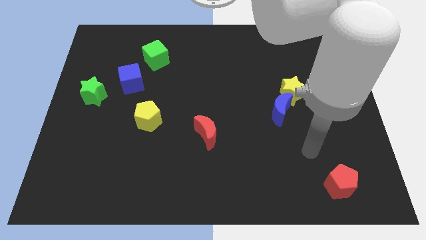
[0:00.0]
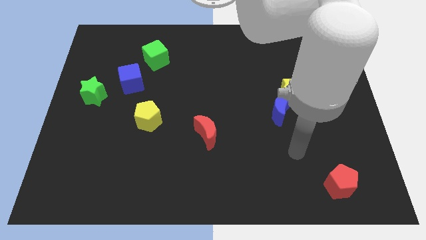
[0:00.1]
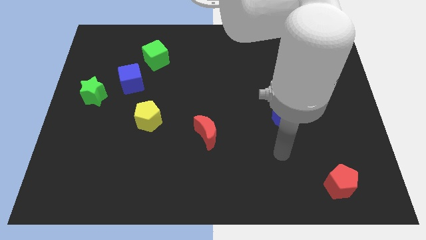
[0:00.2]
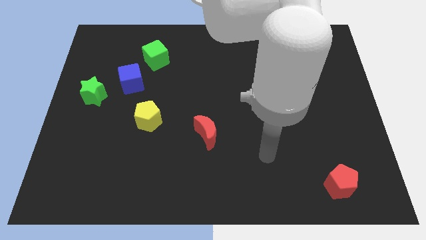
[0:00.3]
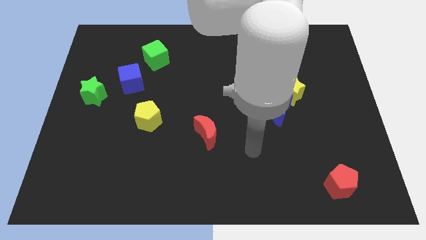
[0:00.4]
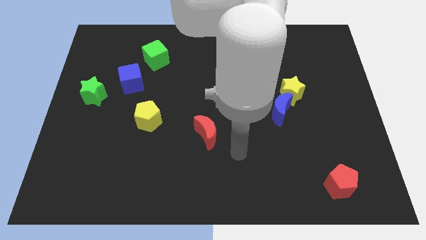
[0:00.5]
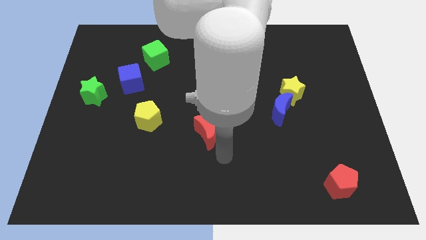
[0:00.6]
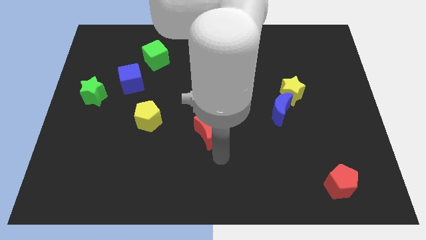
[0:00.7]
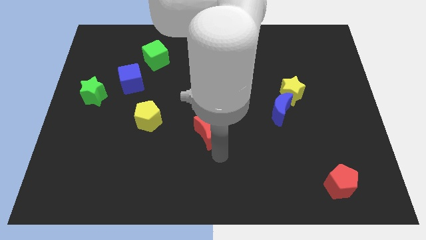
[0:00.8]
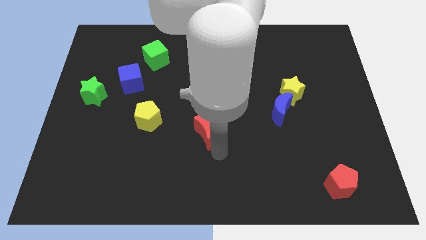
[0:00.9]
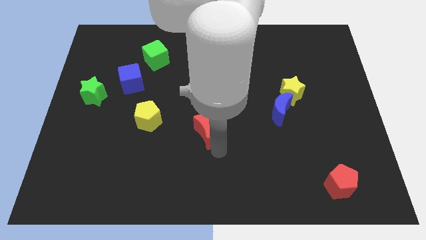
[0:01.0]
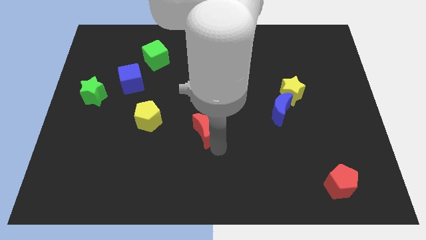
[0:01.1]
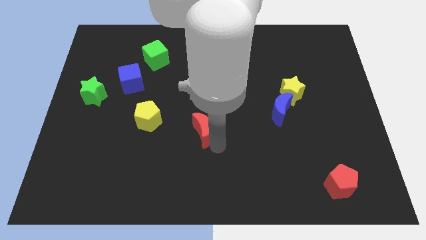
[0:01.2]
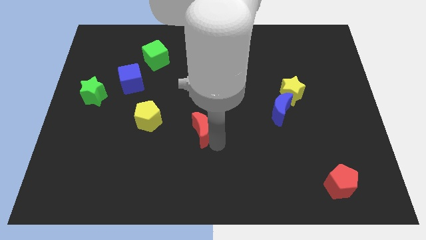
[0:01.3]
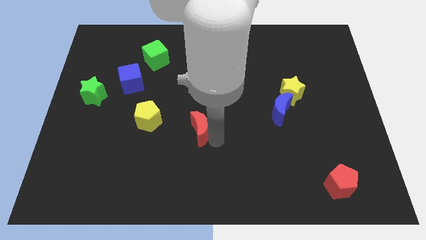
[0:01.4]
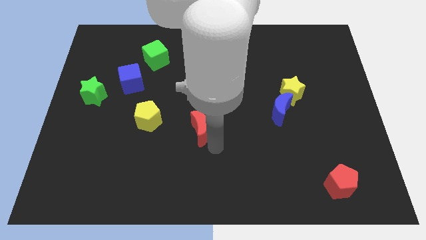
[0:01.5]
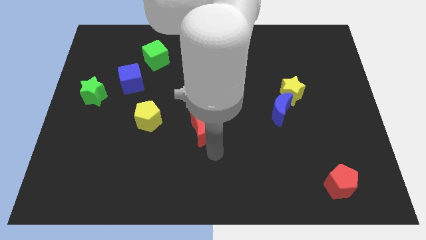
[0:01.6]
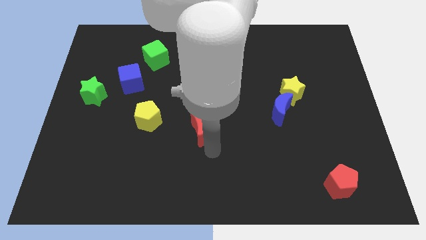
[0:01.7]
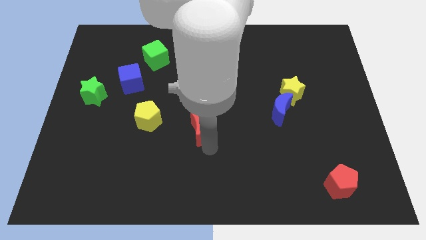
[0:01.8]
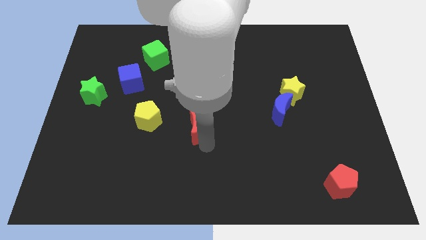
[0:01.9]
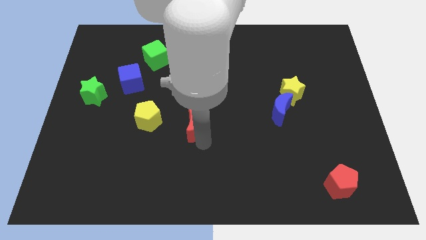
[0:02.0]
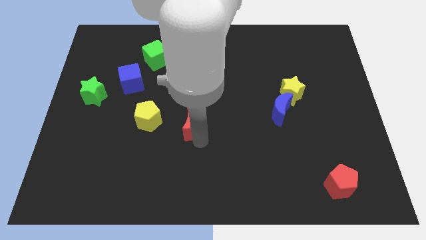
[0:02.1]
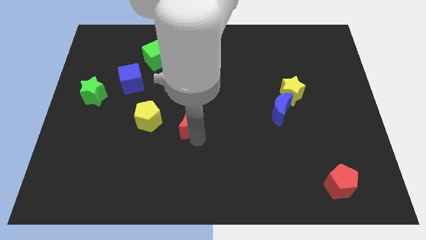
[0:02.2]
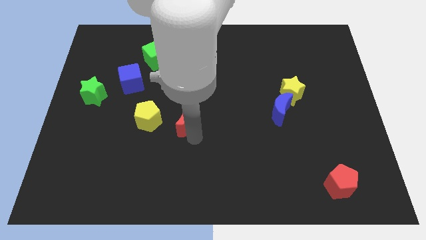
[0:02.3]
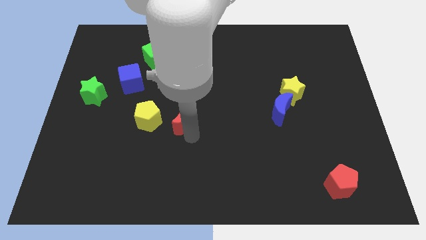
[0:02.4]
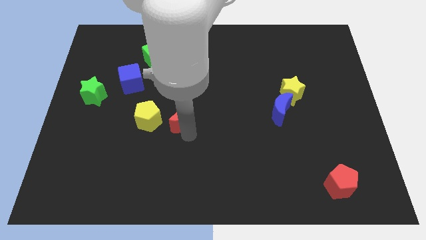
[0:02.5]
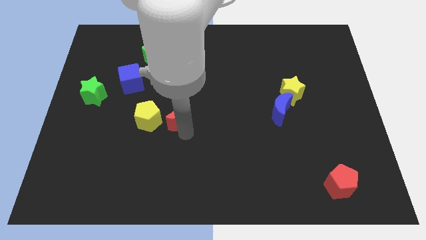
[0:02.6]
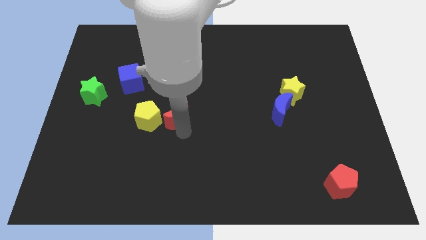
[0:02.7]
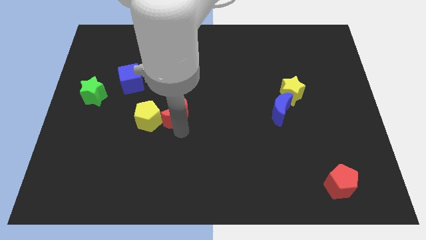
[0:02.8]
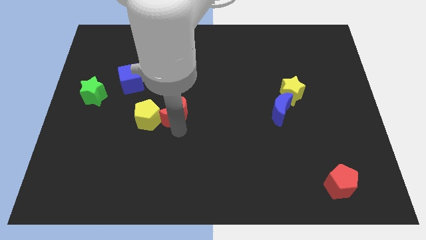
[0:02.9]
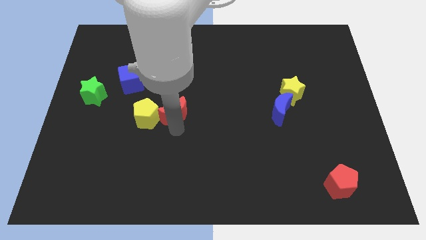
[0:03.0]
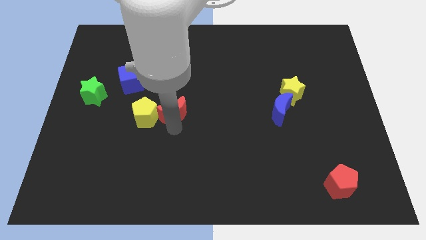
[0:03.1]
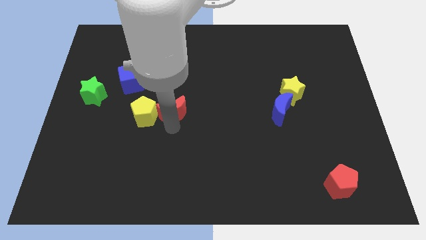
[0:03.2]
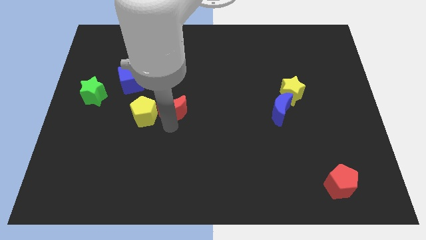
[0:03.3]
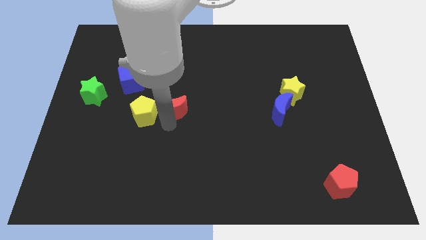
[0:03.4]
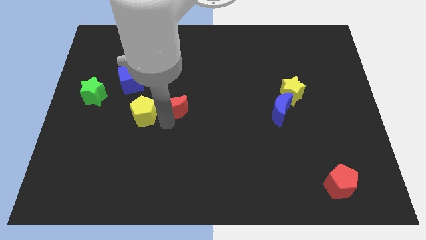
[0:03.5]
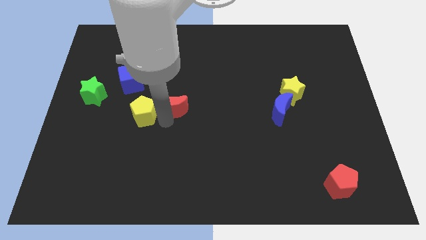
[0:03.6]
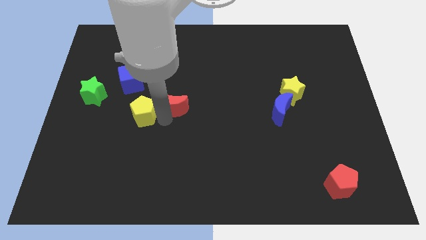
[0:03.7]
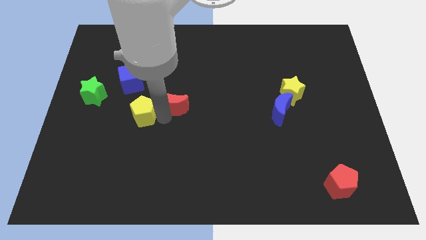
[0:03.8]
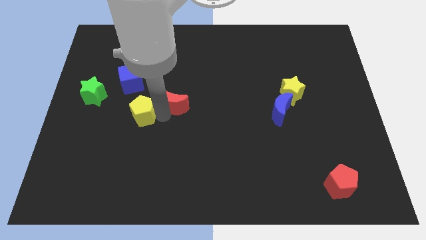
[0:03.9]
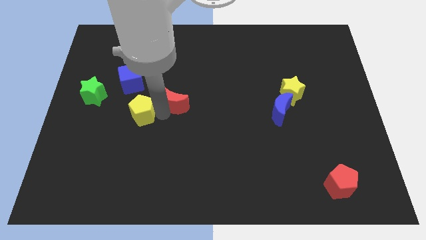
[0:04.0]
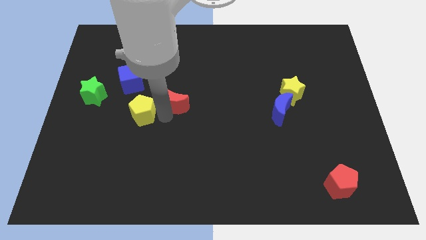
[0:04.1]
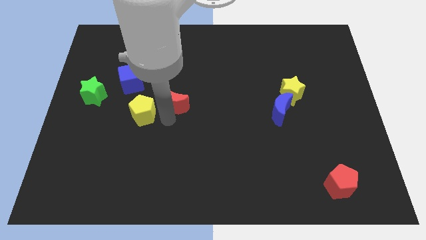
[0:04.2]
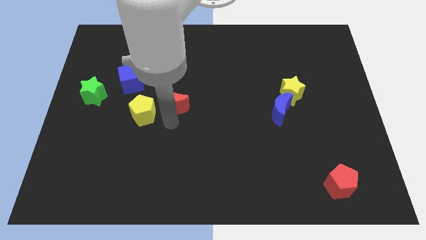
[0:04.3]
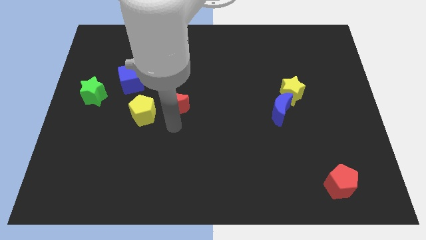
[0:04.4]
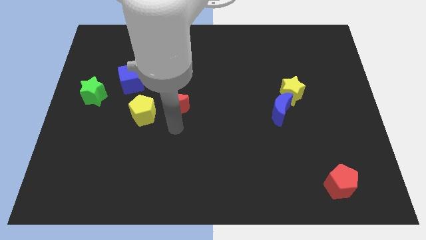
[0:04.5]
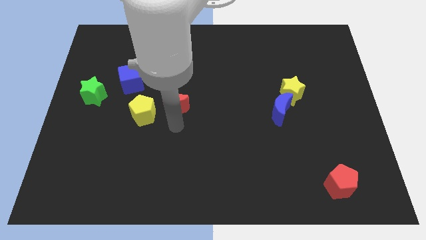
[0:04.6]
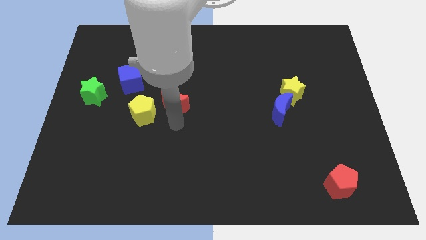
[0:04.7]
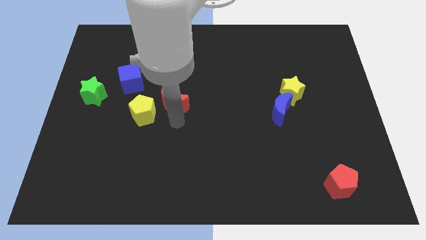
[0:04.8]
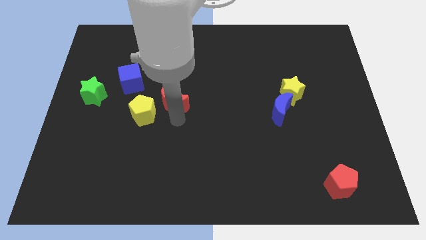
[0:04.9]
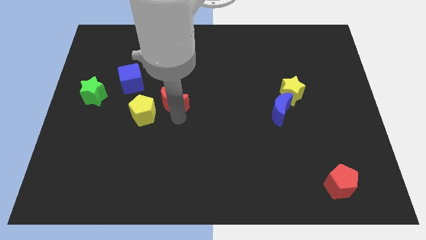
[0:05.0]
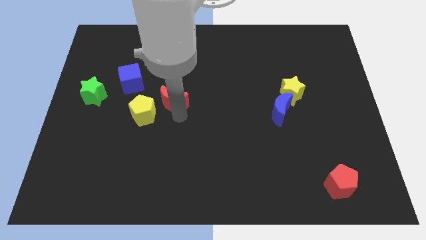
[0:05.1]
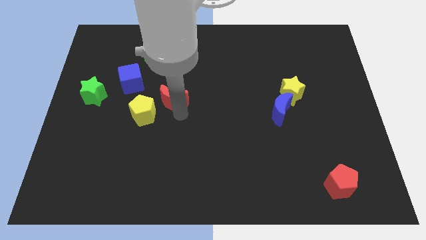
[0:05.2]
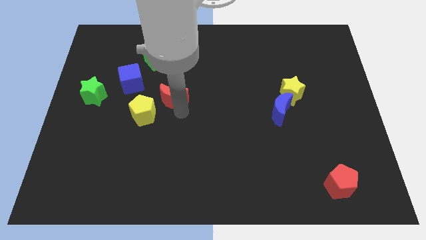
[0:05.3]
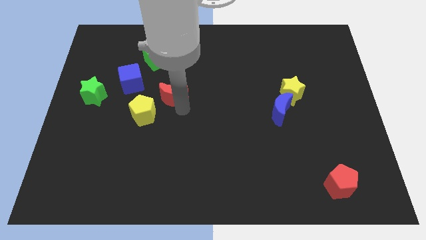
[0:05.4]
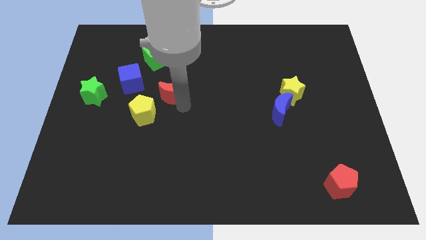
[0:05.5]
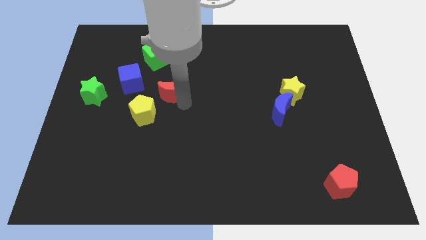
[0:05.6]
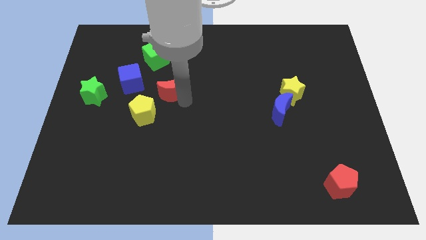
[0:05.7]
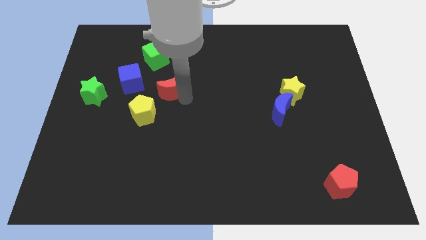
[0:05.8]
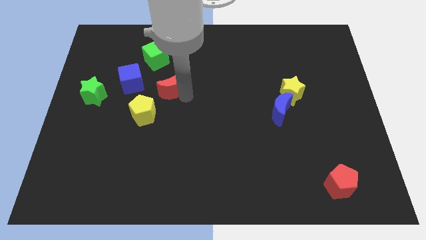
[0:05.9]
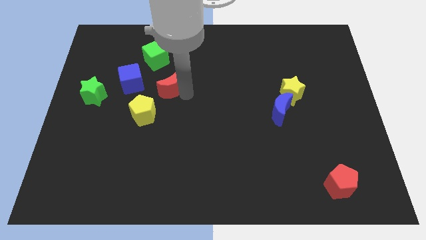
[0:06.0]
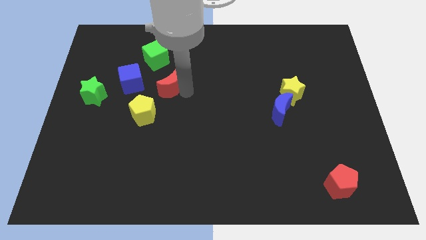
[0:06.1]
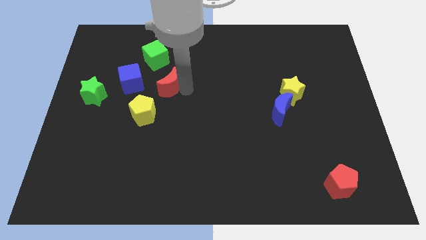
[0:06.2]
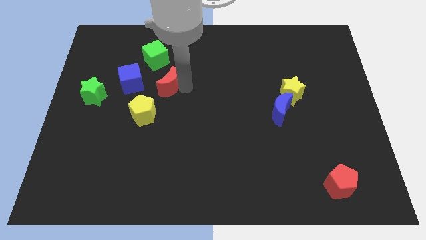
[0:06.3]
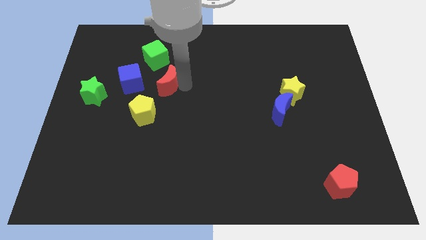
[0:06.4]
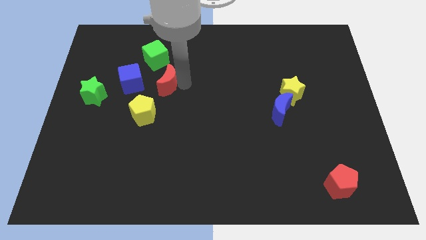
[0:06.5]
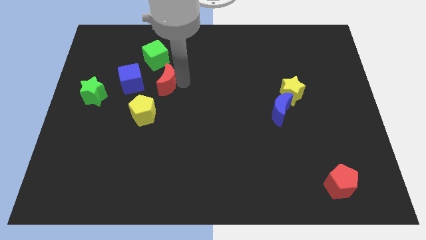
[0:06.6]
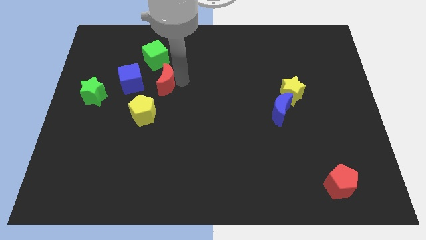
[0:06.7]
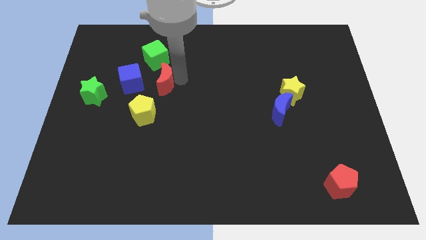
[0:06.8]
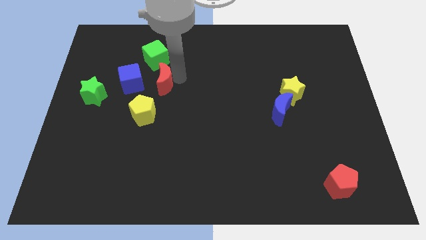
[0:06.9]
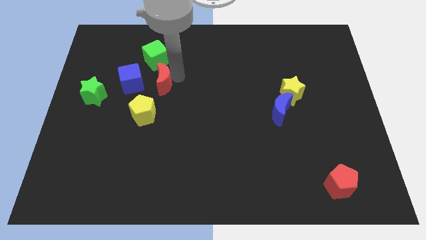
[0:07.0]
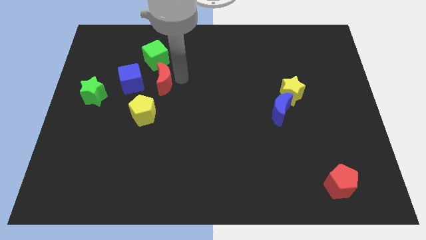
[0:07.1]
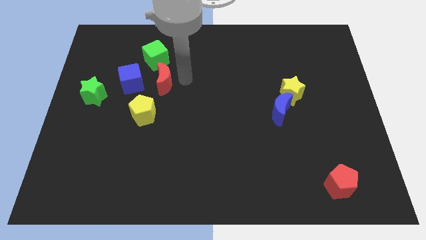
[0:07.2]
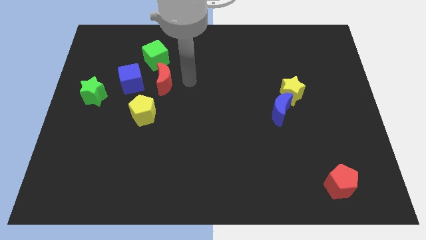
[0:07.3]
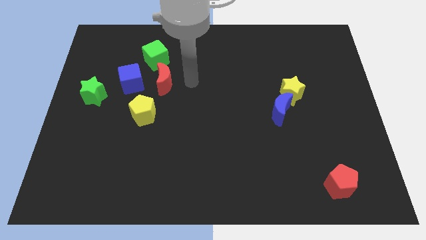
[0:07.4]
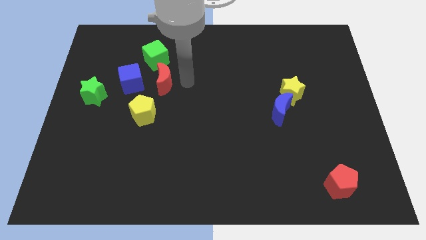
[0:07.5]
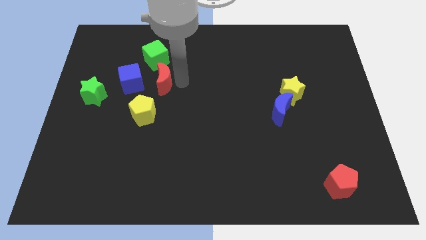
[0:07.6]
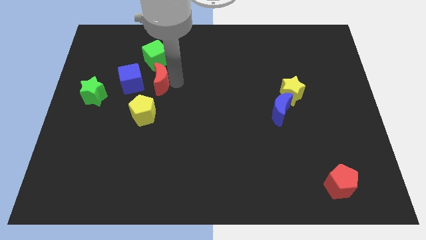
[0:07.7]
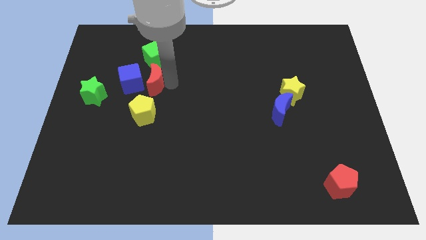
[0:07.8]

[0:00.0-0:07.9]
slide the red moon upwards and left diagonally
